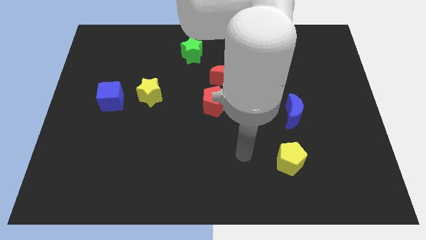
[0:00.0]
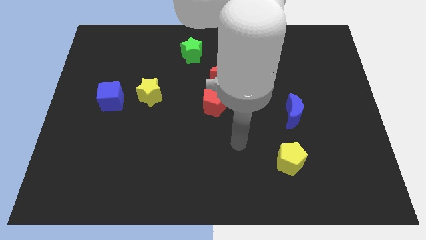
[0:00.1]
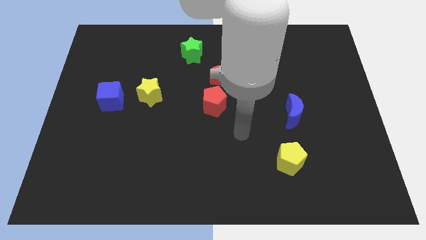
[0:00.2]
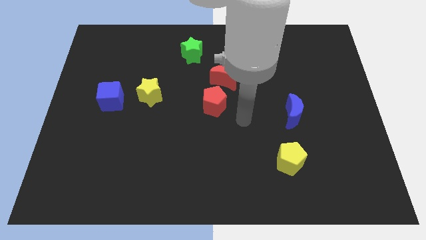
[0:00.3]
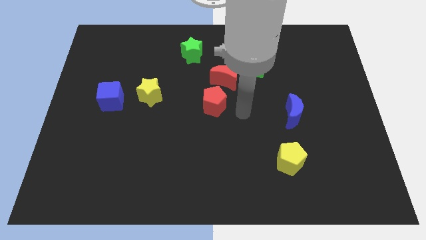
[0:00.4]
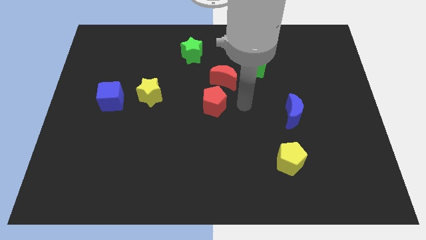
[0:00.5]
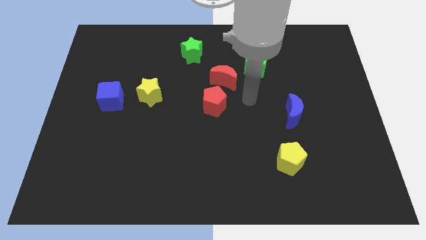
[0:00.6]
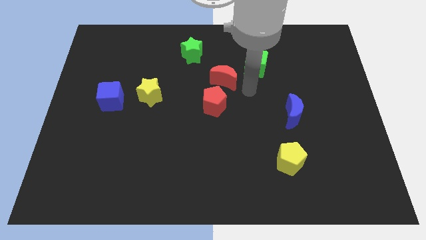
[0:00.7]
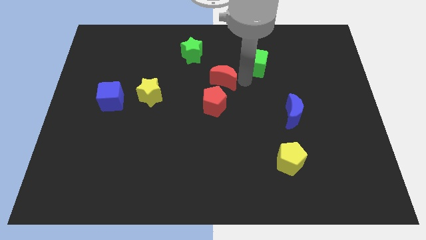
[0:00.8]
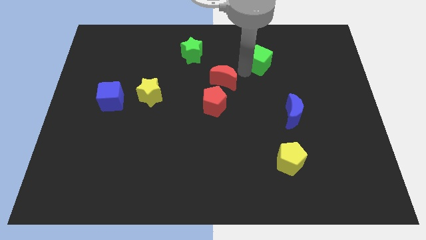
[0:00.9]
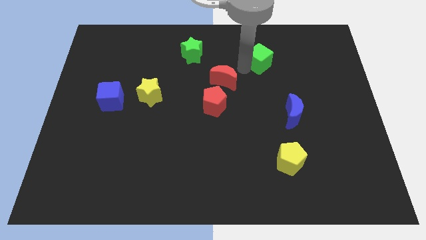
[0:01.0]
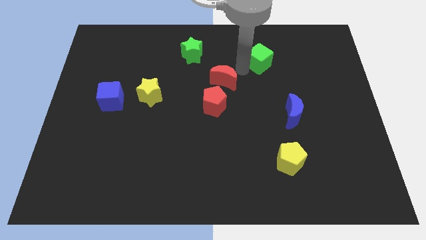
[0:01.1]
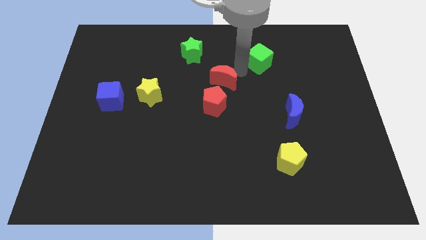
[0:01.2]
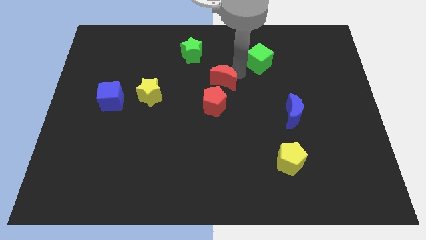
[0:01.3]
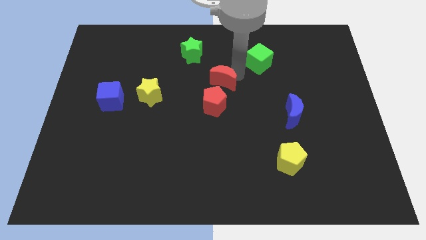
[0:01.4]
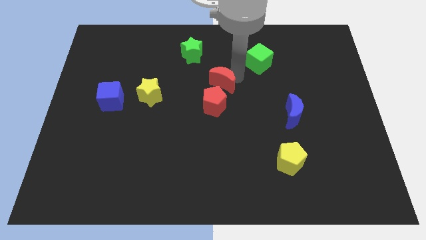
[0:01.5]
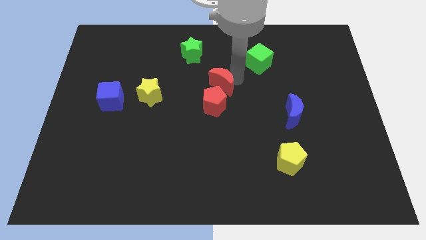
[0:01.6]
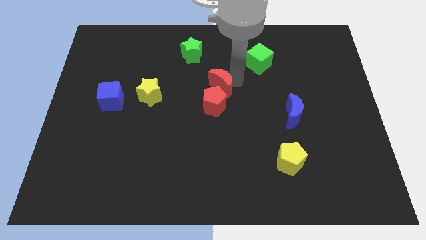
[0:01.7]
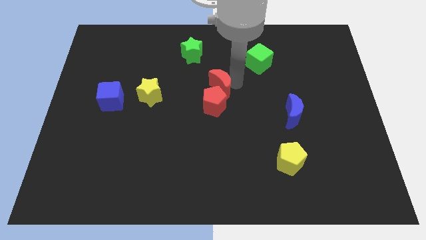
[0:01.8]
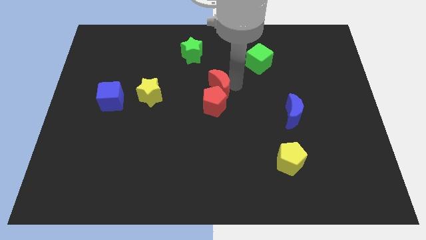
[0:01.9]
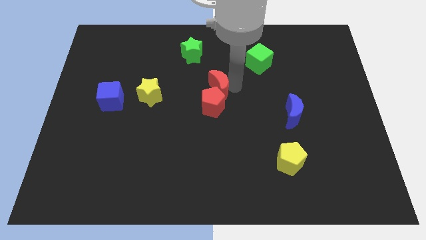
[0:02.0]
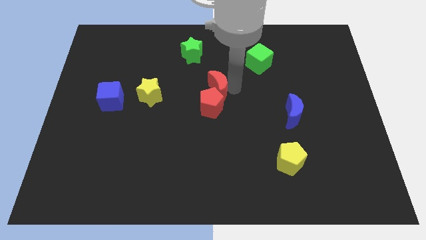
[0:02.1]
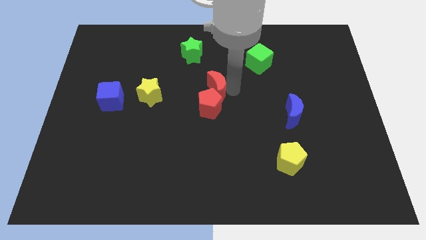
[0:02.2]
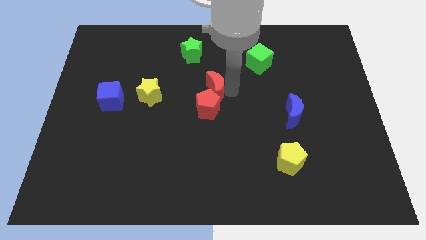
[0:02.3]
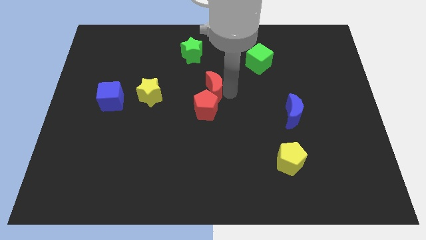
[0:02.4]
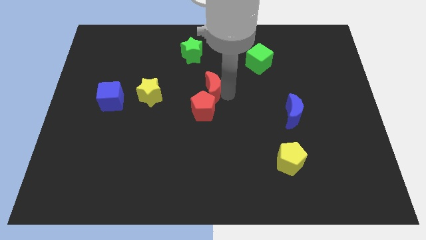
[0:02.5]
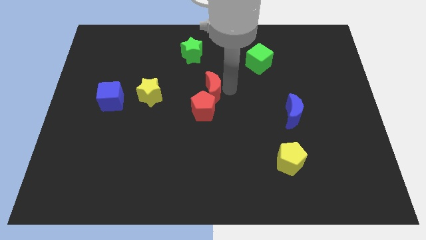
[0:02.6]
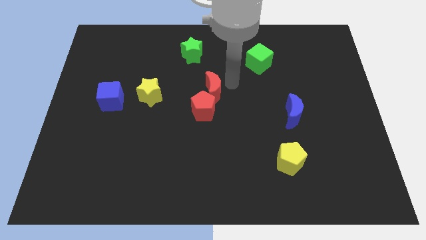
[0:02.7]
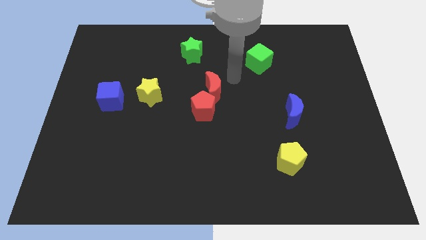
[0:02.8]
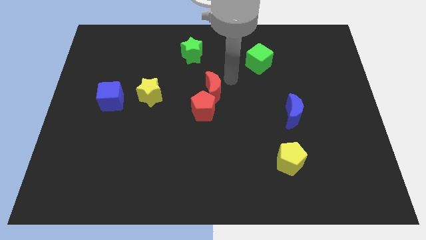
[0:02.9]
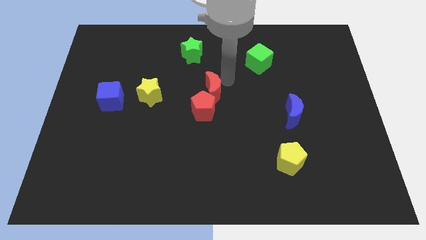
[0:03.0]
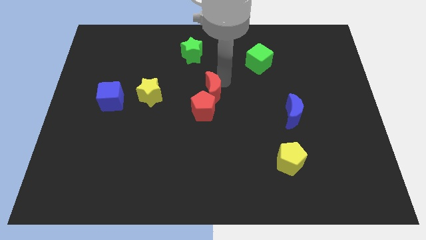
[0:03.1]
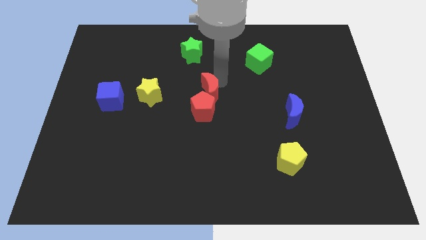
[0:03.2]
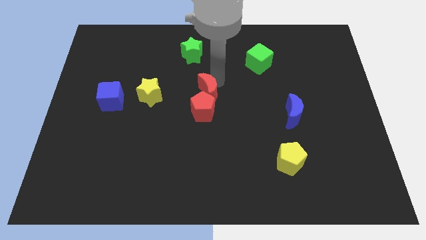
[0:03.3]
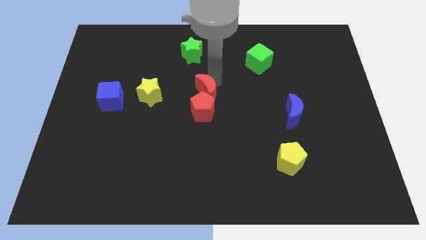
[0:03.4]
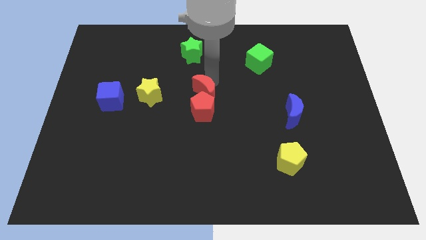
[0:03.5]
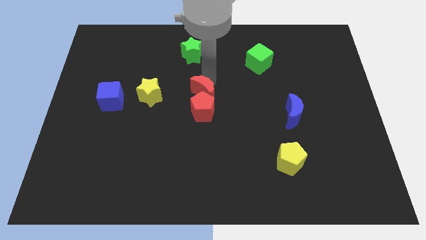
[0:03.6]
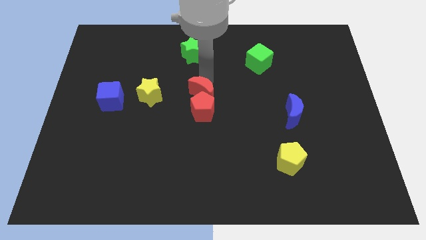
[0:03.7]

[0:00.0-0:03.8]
slightly slide the red moon down and then left

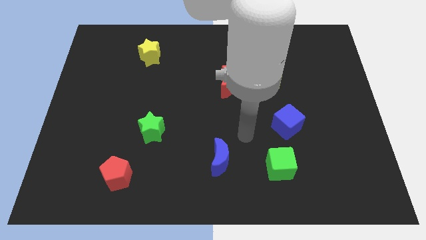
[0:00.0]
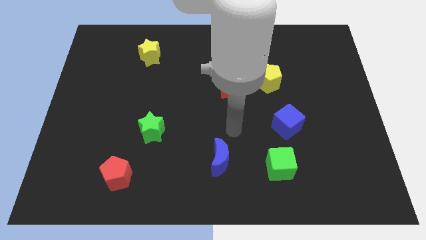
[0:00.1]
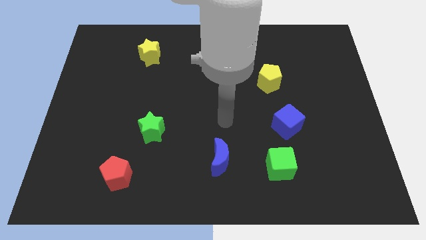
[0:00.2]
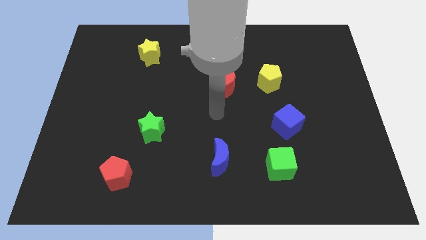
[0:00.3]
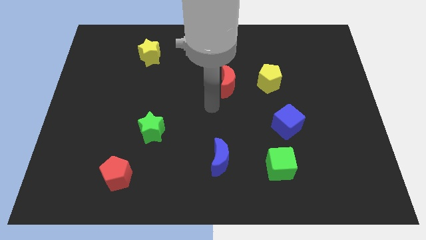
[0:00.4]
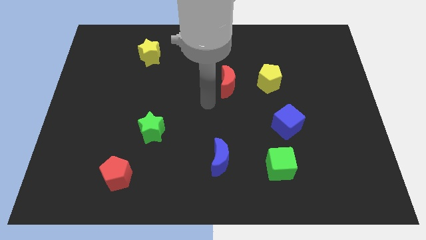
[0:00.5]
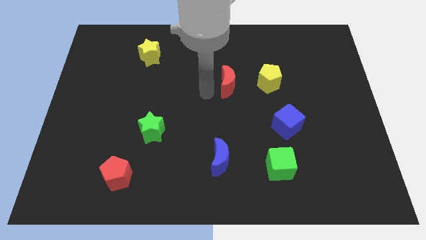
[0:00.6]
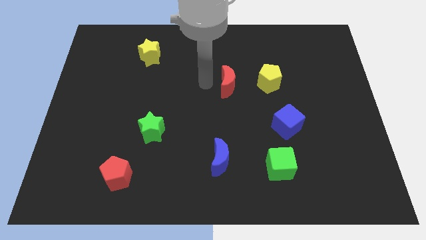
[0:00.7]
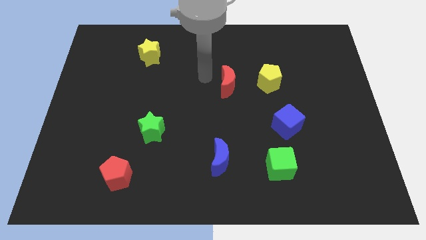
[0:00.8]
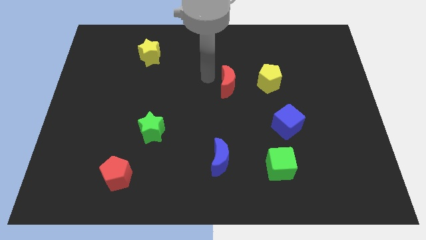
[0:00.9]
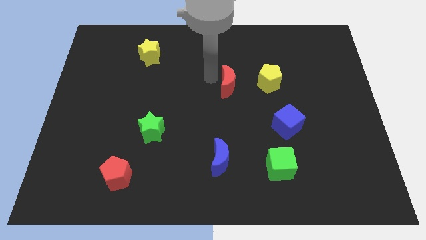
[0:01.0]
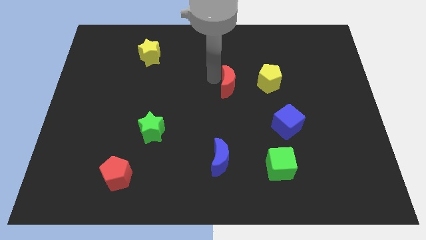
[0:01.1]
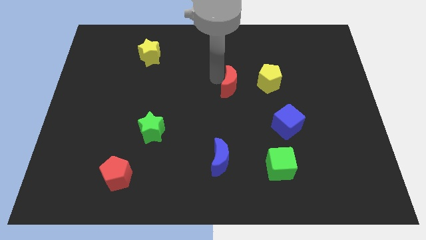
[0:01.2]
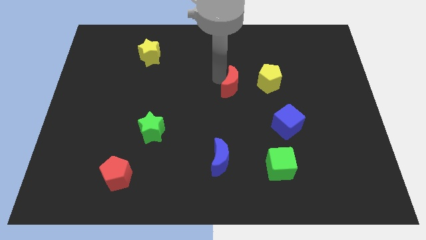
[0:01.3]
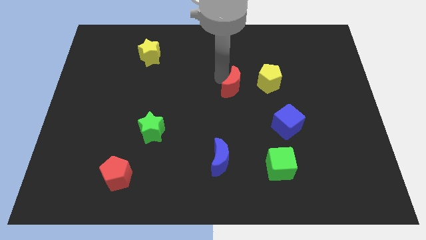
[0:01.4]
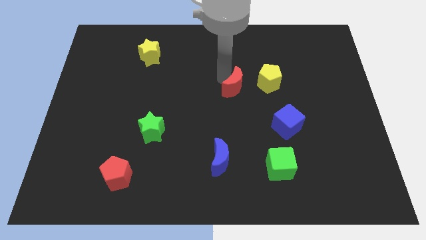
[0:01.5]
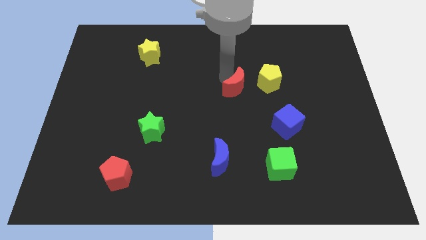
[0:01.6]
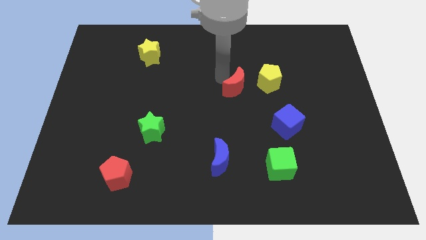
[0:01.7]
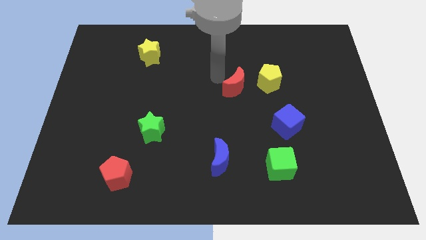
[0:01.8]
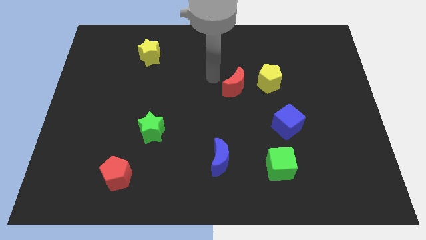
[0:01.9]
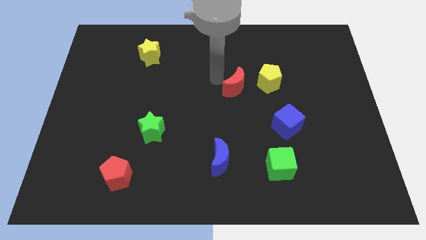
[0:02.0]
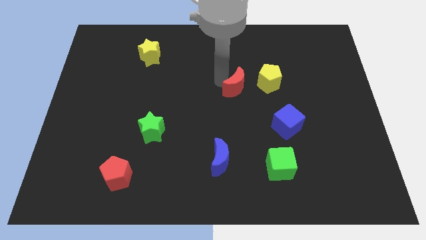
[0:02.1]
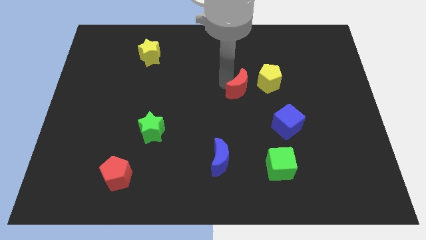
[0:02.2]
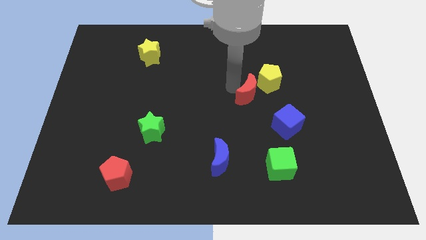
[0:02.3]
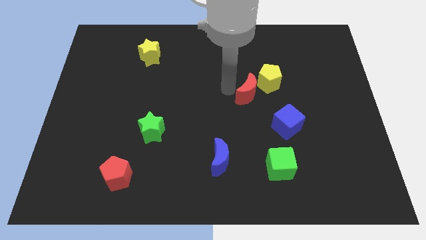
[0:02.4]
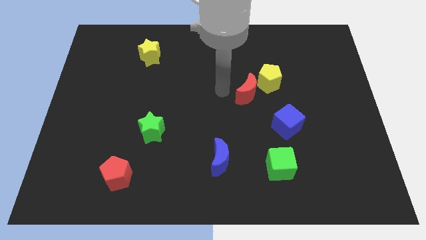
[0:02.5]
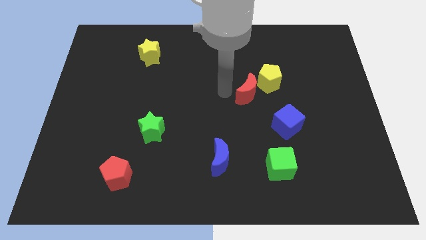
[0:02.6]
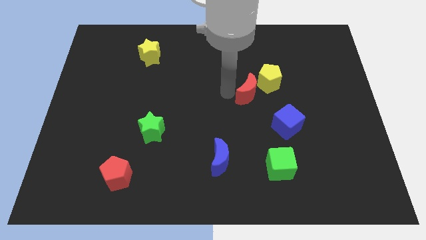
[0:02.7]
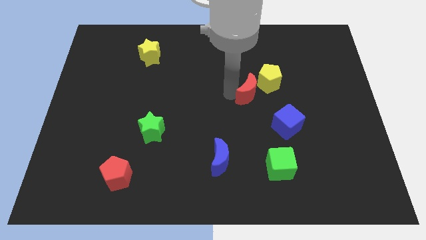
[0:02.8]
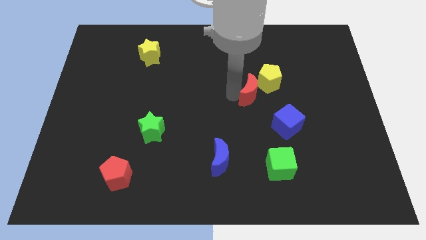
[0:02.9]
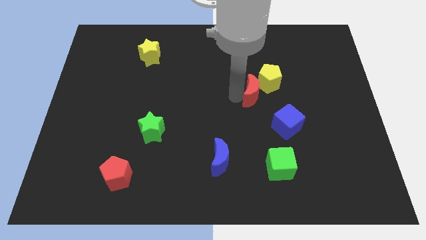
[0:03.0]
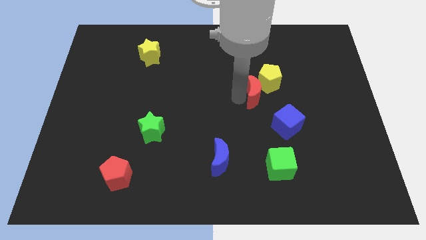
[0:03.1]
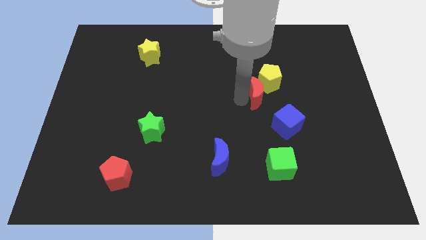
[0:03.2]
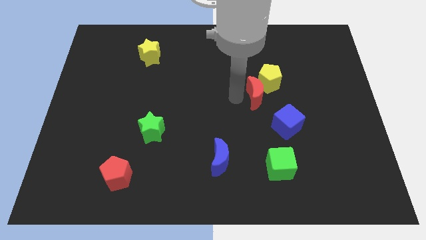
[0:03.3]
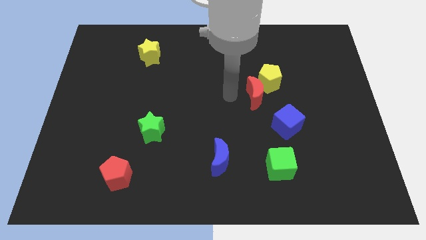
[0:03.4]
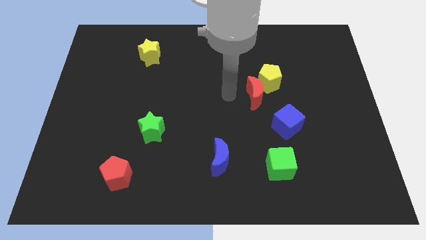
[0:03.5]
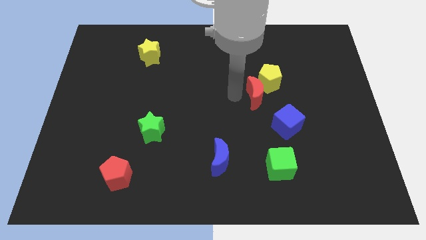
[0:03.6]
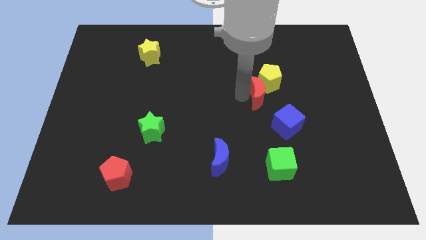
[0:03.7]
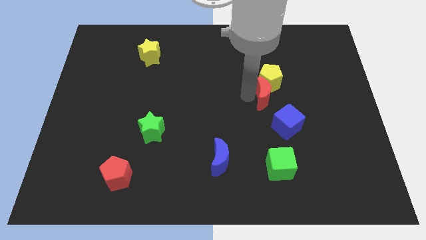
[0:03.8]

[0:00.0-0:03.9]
slide the red moon somewhat to the right

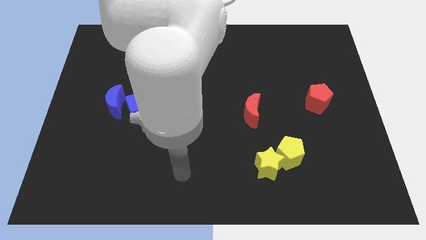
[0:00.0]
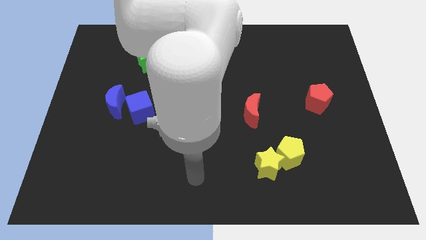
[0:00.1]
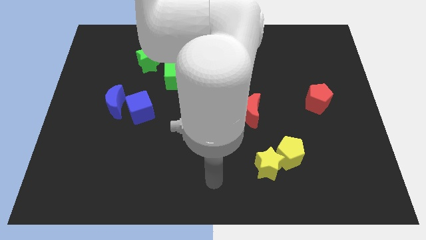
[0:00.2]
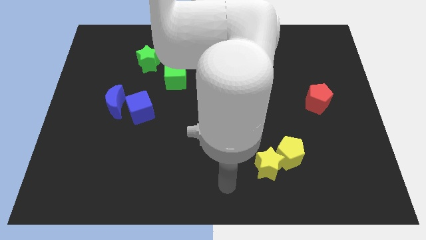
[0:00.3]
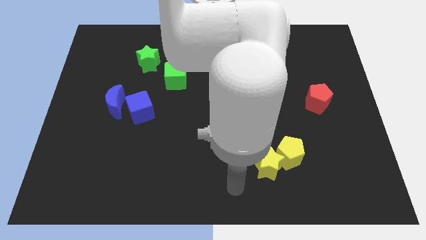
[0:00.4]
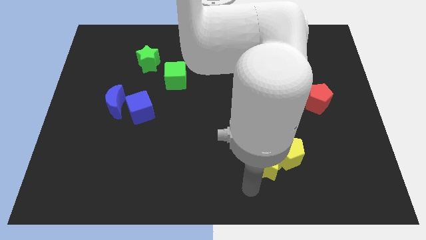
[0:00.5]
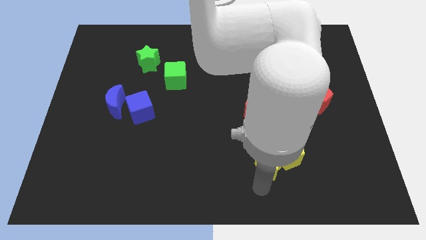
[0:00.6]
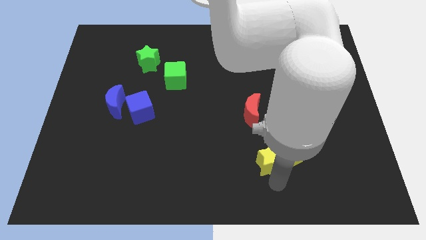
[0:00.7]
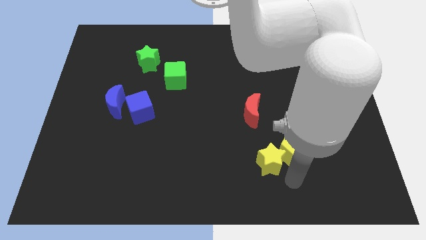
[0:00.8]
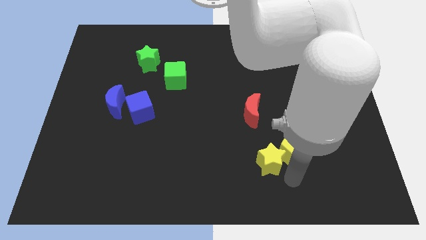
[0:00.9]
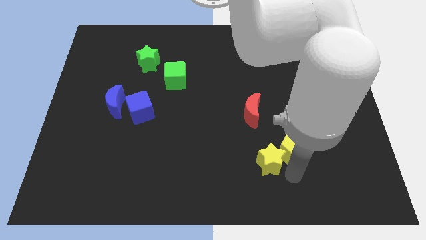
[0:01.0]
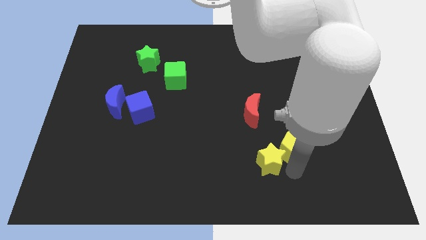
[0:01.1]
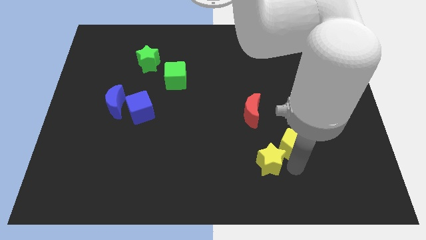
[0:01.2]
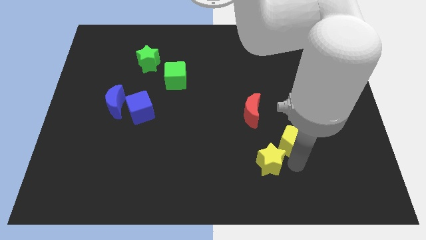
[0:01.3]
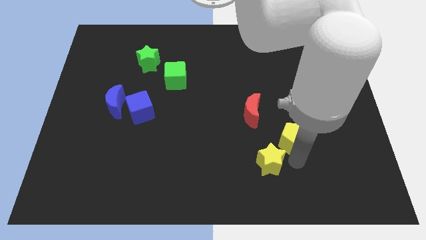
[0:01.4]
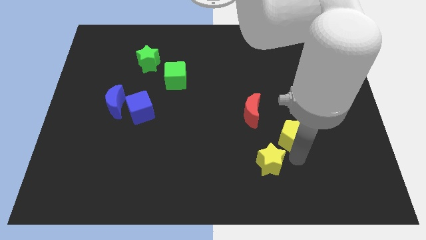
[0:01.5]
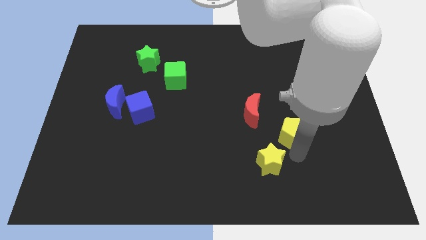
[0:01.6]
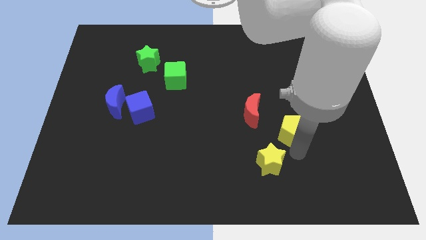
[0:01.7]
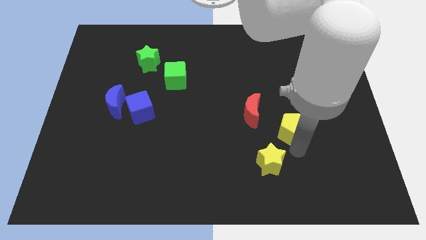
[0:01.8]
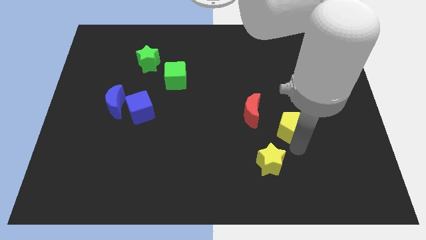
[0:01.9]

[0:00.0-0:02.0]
slightly slide the yellow pentagon up
